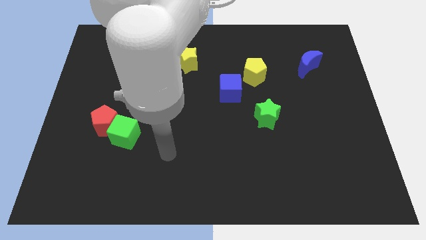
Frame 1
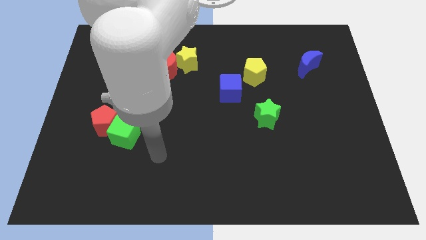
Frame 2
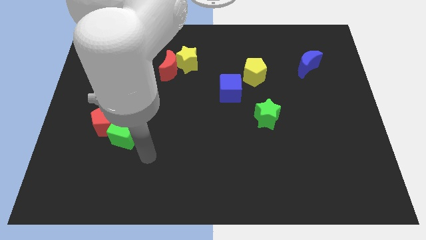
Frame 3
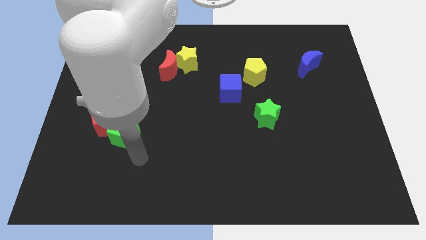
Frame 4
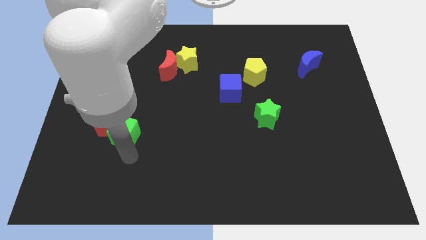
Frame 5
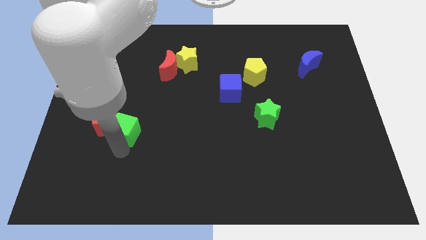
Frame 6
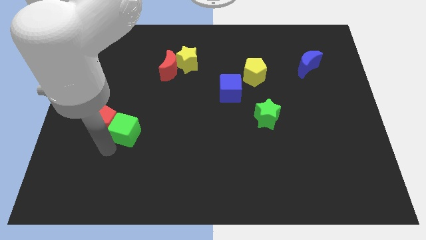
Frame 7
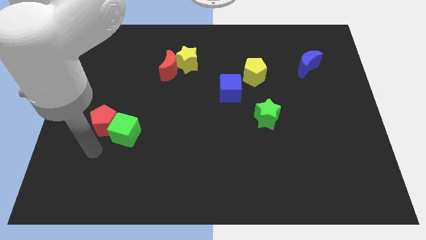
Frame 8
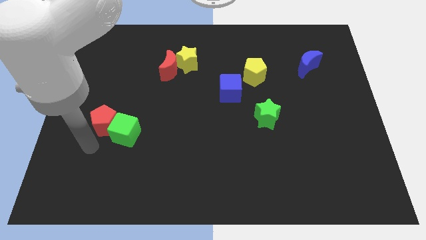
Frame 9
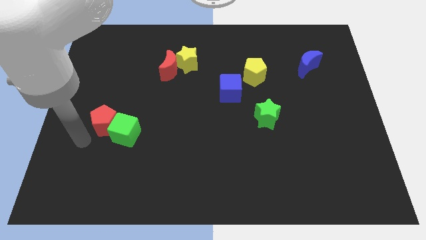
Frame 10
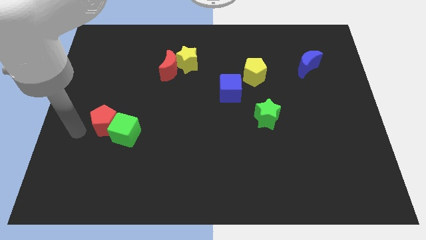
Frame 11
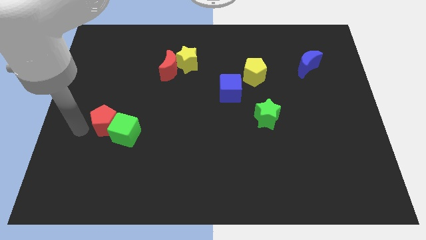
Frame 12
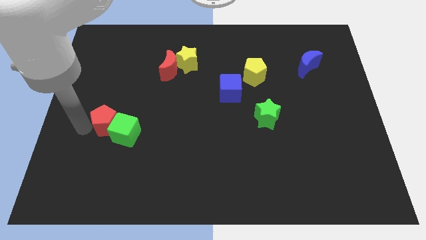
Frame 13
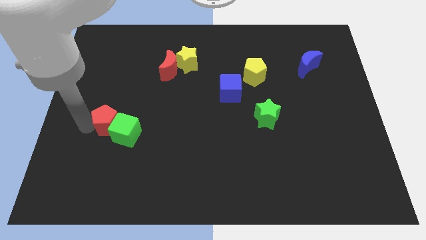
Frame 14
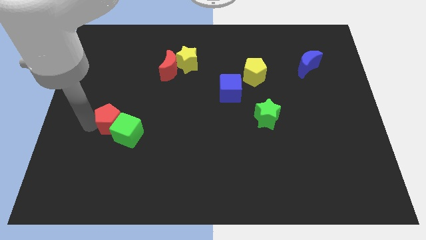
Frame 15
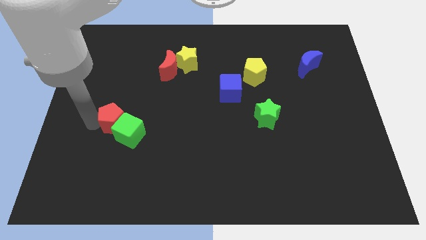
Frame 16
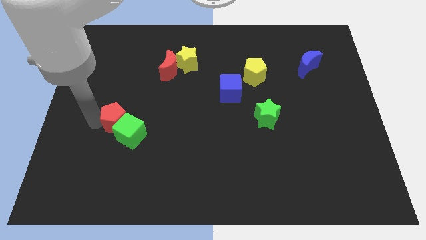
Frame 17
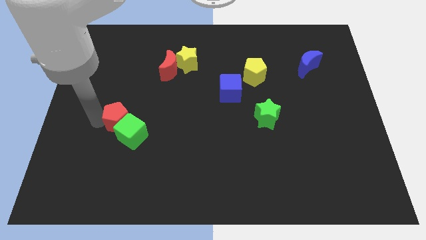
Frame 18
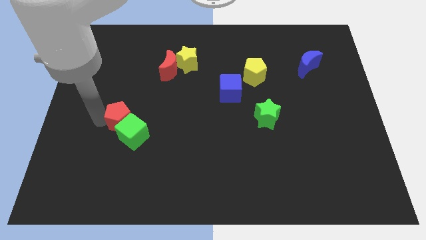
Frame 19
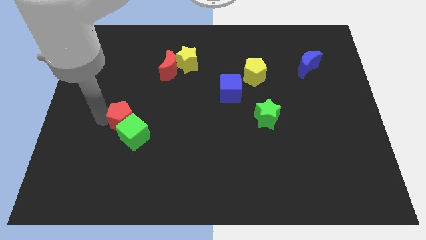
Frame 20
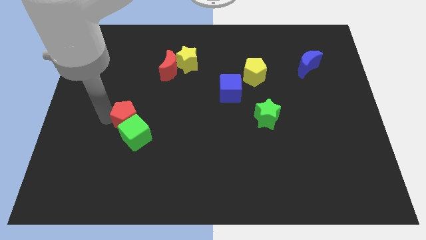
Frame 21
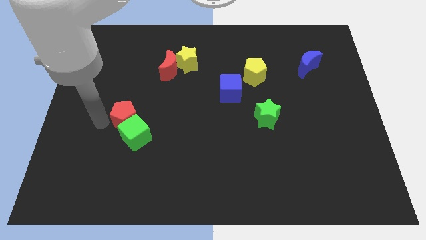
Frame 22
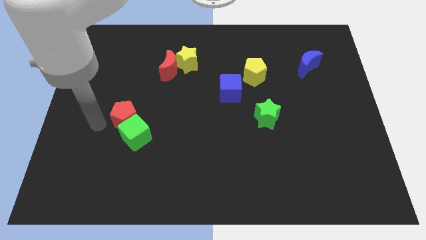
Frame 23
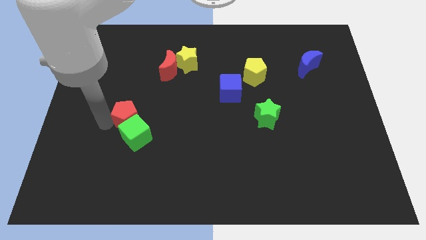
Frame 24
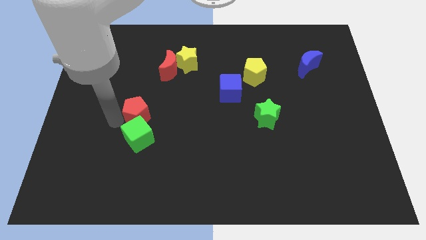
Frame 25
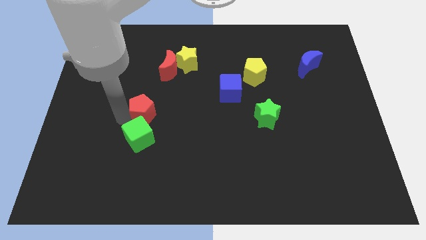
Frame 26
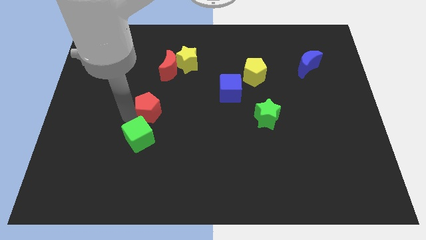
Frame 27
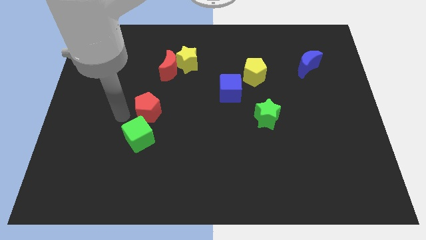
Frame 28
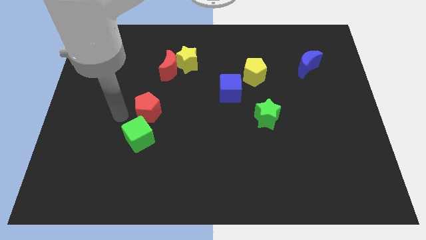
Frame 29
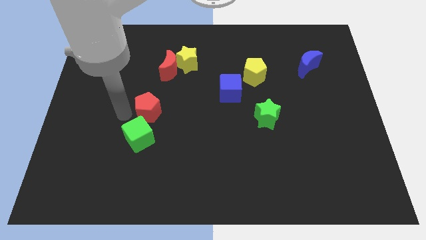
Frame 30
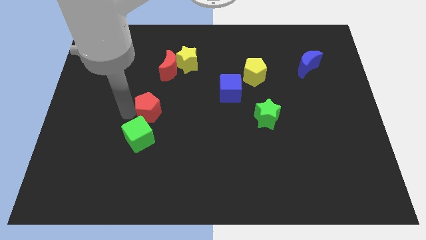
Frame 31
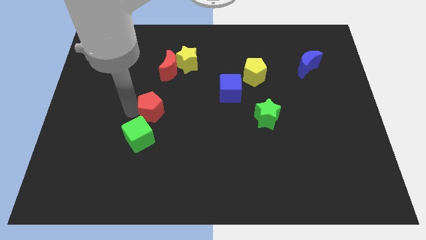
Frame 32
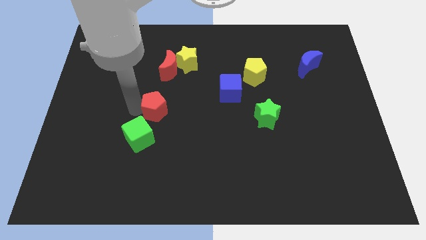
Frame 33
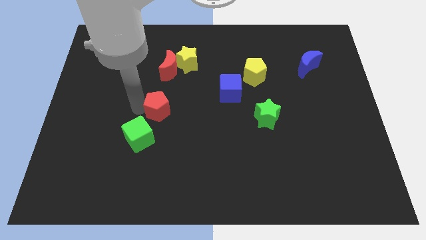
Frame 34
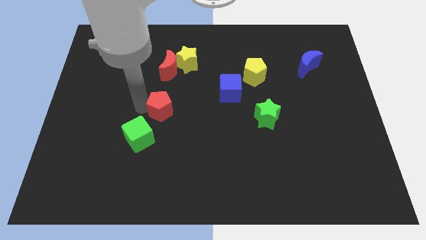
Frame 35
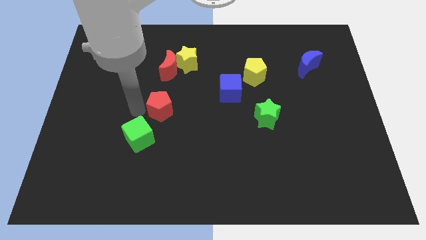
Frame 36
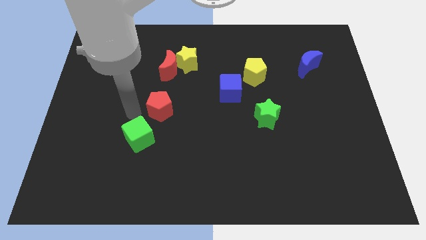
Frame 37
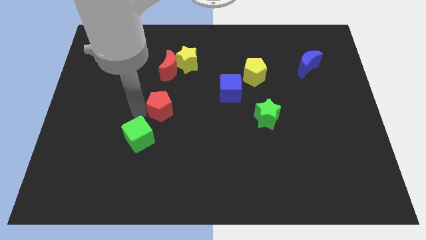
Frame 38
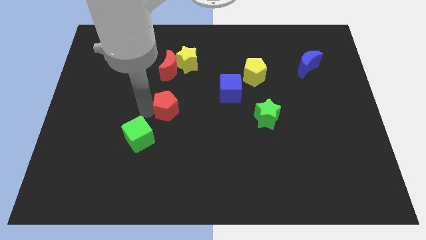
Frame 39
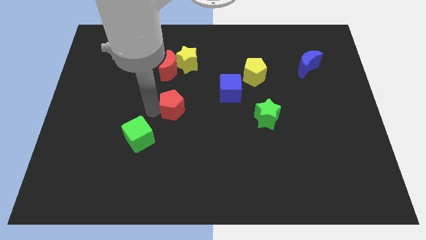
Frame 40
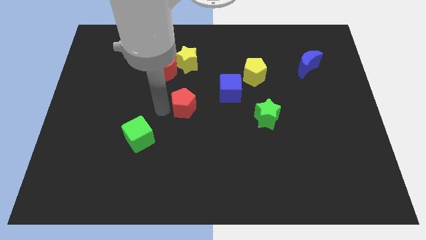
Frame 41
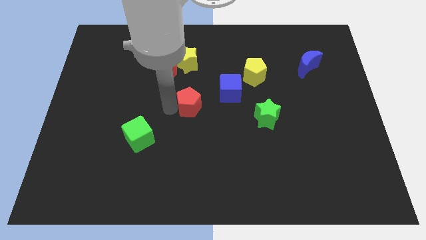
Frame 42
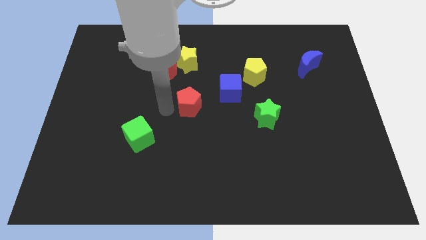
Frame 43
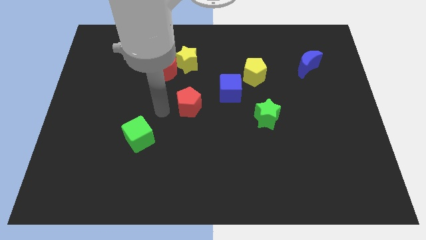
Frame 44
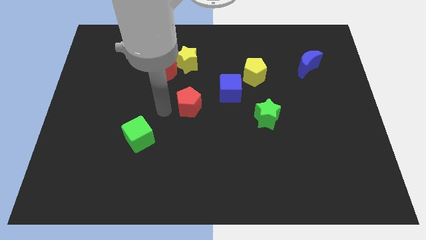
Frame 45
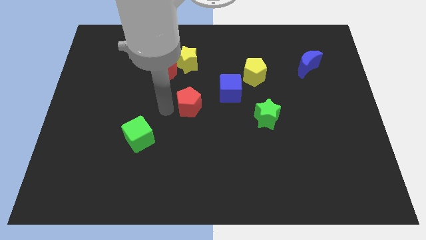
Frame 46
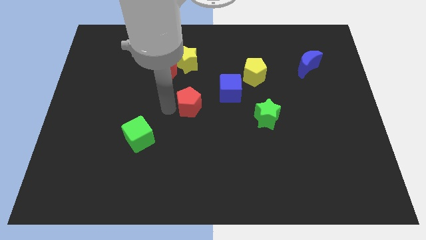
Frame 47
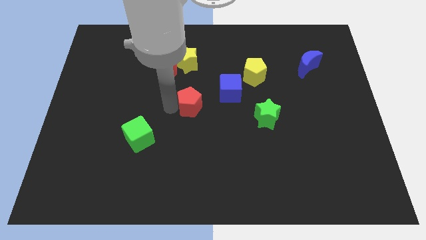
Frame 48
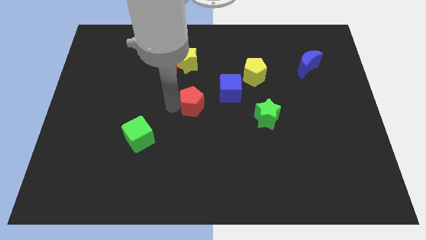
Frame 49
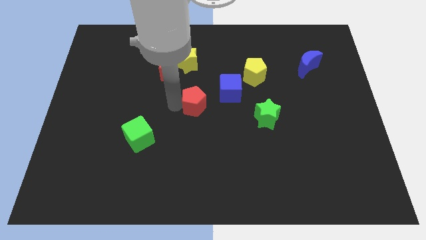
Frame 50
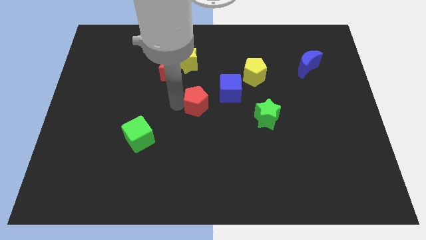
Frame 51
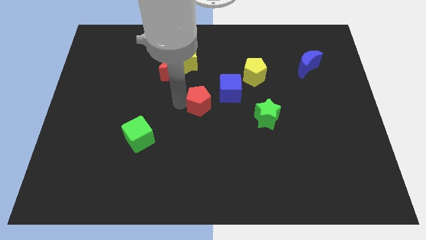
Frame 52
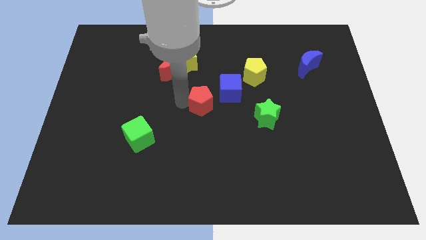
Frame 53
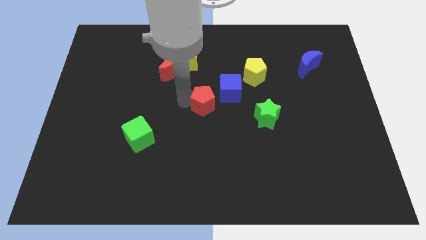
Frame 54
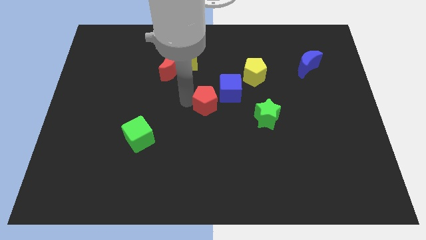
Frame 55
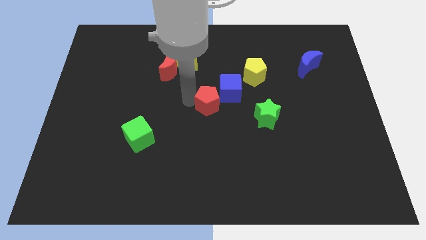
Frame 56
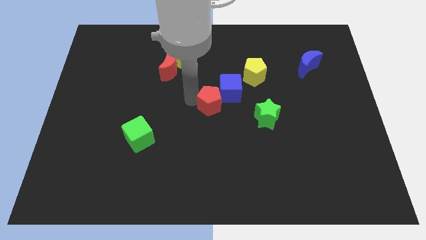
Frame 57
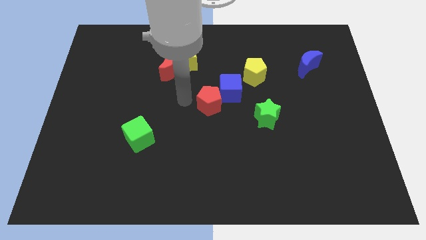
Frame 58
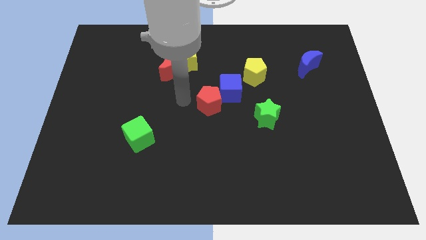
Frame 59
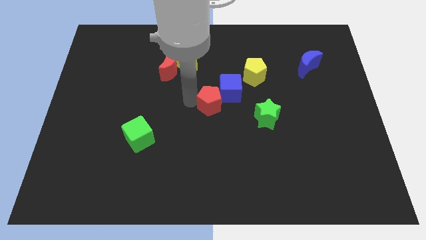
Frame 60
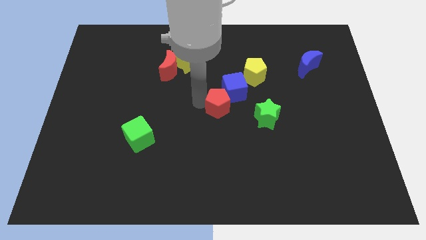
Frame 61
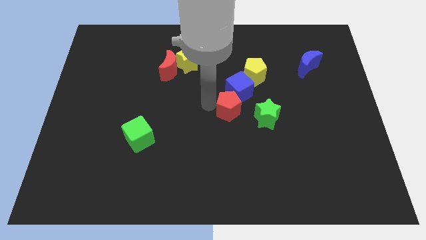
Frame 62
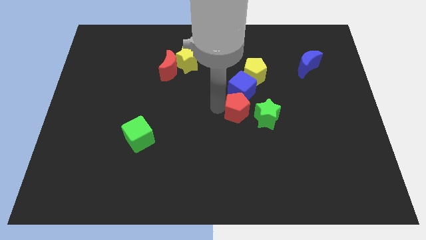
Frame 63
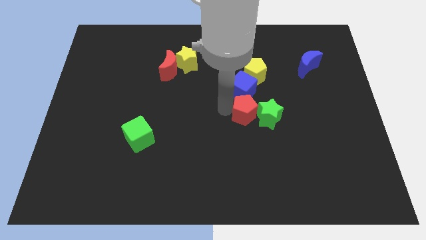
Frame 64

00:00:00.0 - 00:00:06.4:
move the red pentagon to the bottom right side of the blue cube

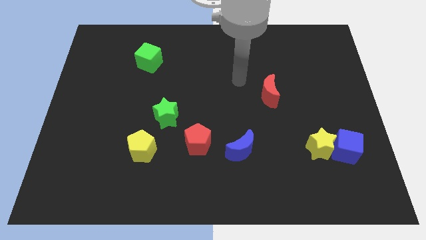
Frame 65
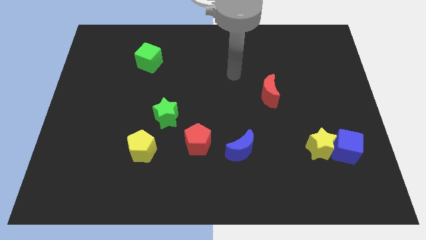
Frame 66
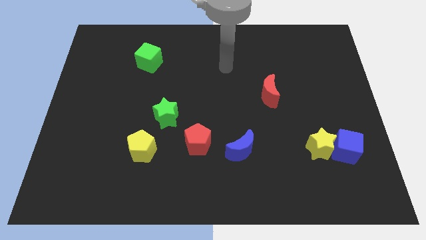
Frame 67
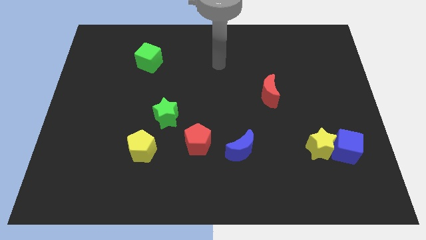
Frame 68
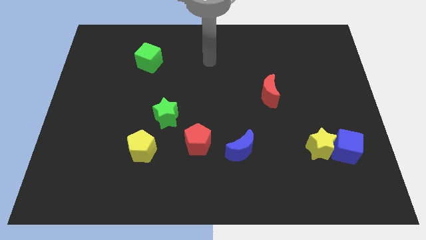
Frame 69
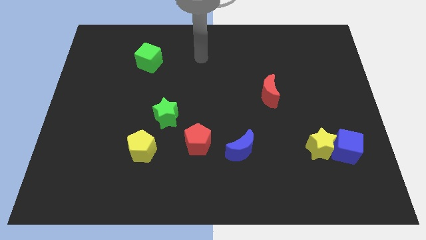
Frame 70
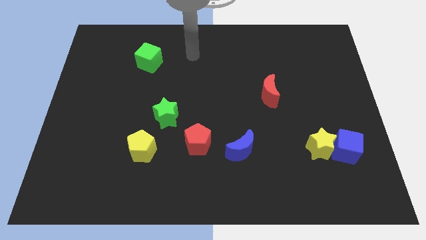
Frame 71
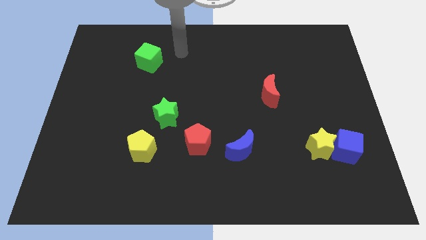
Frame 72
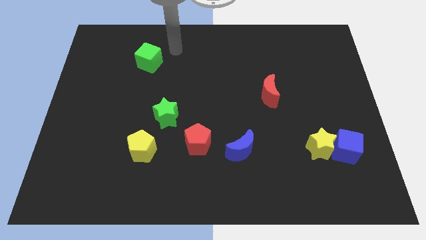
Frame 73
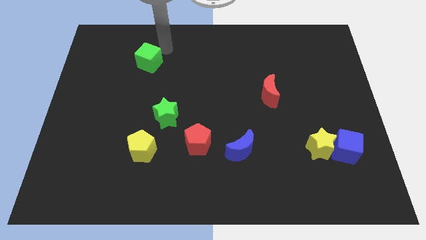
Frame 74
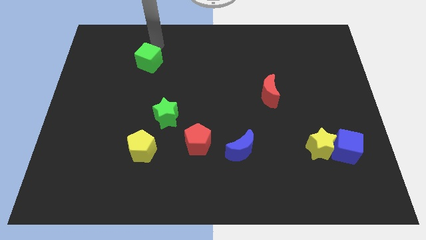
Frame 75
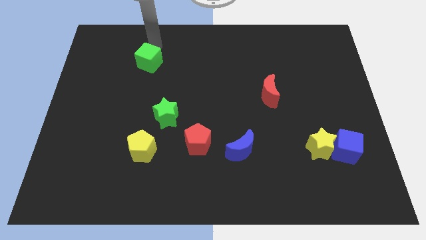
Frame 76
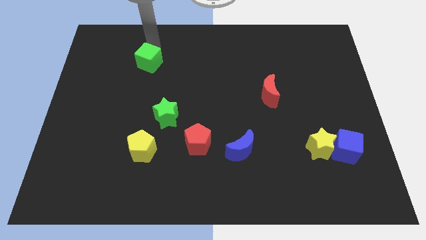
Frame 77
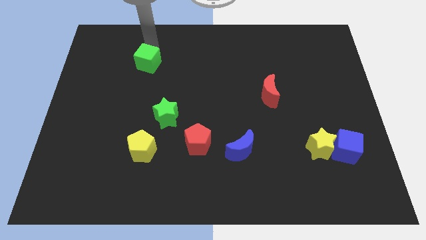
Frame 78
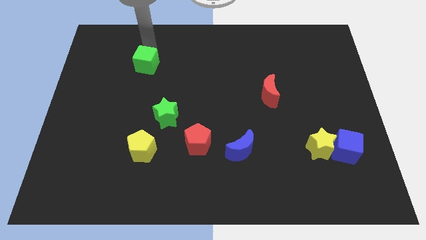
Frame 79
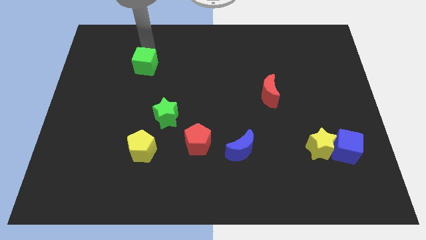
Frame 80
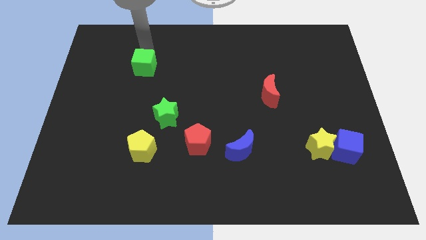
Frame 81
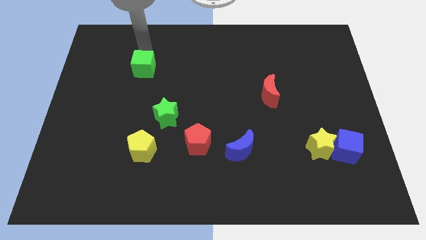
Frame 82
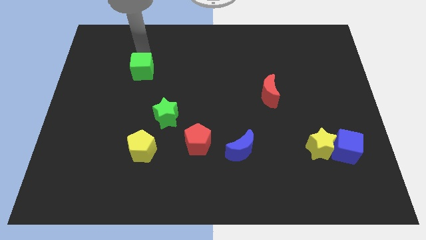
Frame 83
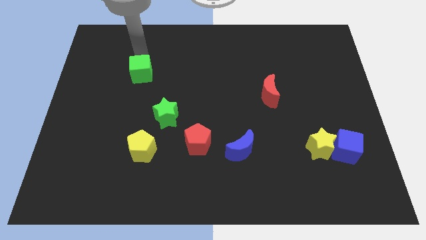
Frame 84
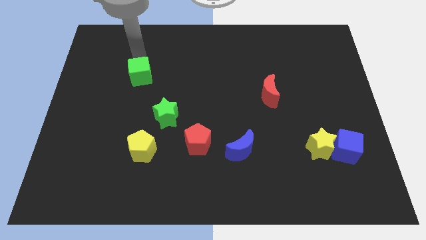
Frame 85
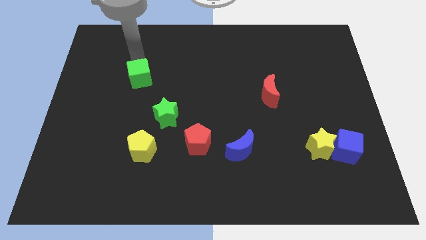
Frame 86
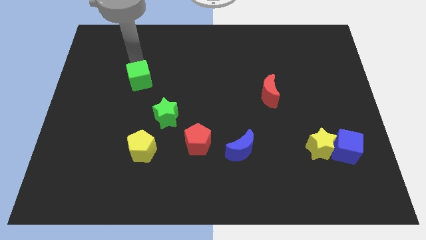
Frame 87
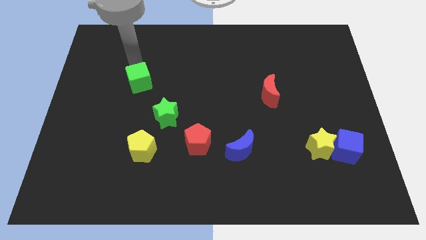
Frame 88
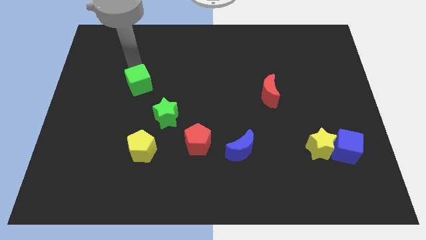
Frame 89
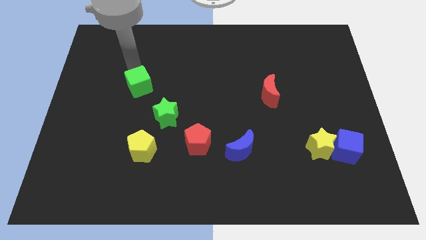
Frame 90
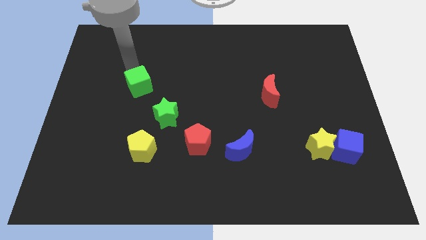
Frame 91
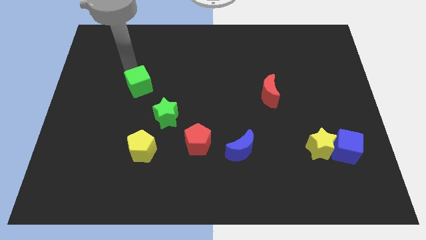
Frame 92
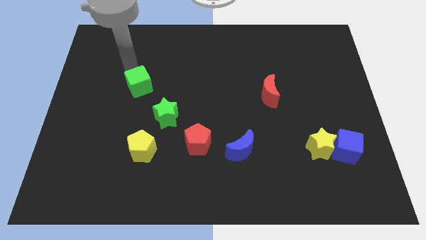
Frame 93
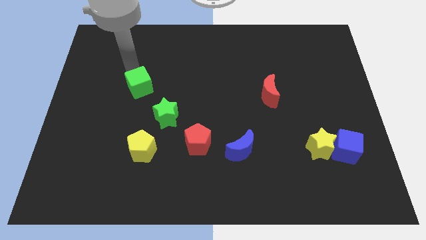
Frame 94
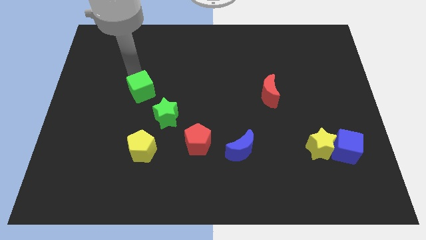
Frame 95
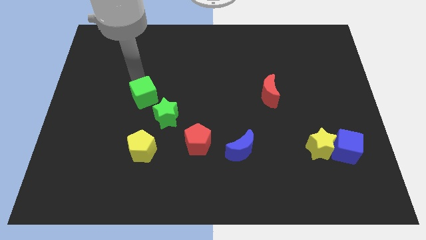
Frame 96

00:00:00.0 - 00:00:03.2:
push the green cube above the yellow pentagon
